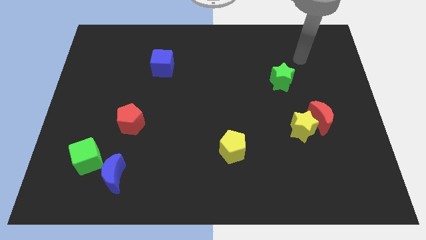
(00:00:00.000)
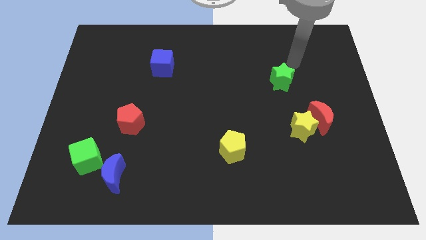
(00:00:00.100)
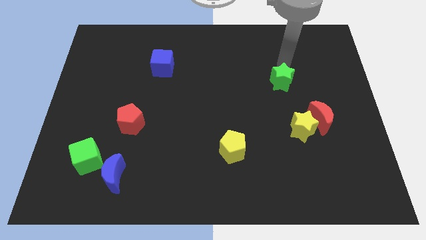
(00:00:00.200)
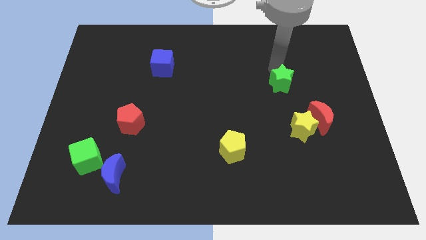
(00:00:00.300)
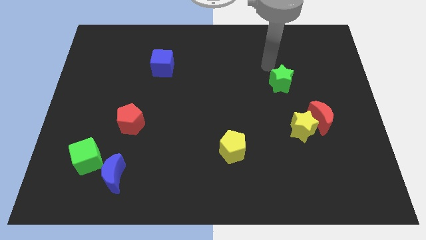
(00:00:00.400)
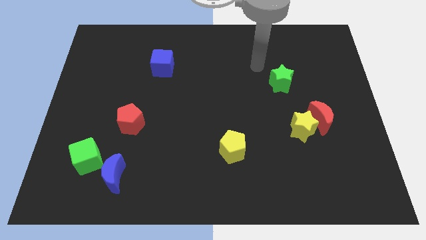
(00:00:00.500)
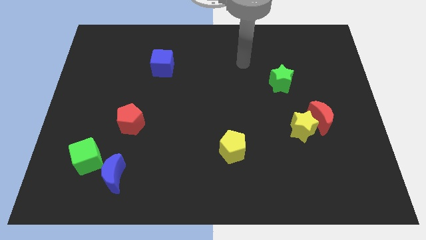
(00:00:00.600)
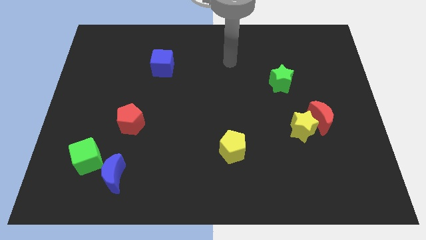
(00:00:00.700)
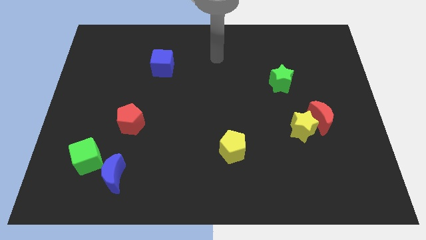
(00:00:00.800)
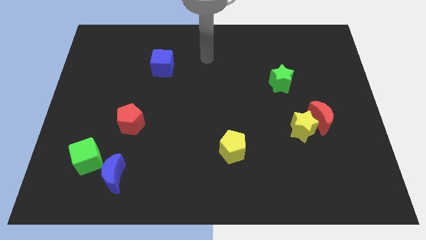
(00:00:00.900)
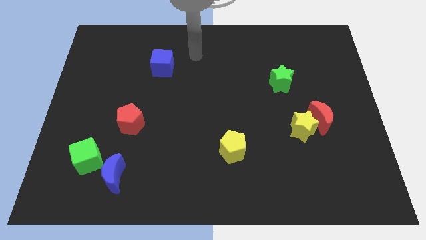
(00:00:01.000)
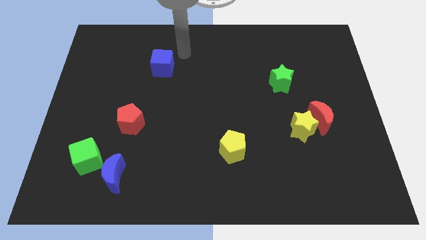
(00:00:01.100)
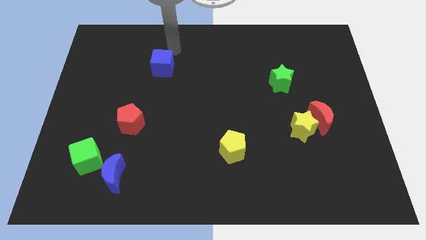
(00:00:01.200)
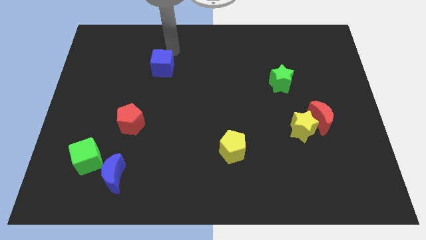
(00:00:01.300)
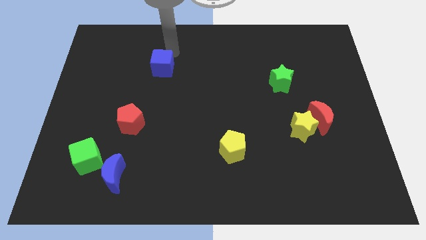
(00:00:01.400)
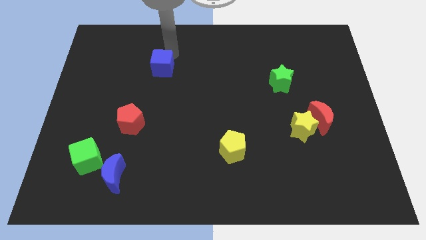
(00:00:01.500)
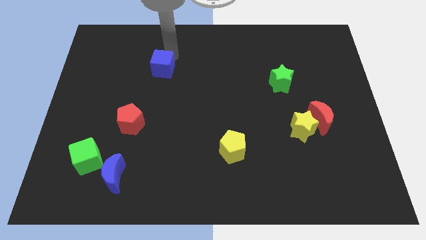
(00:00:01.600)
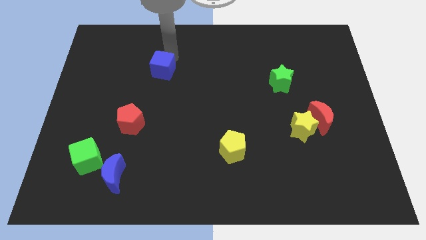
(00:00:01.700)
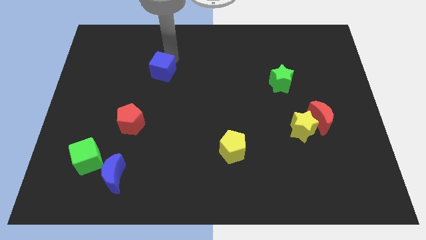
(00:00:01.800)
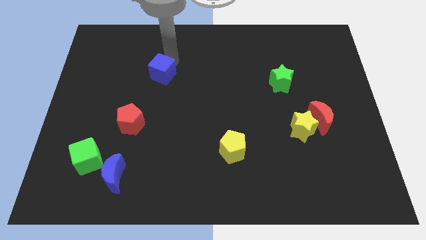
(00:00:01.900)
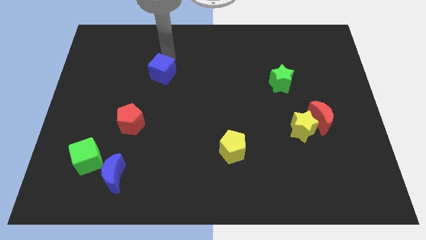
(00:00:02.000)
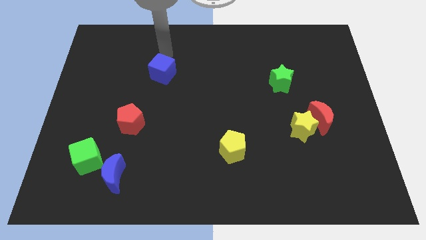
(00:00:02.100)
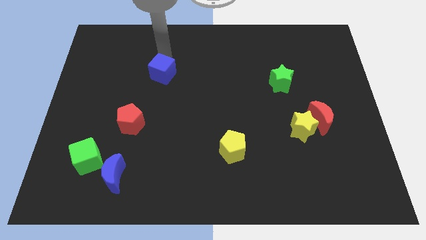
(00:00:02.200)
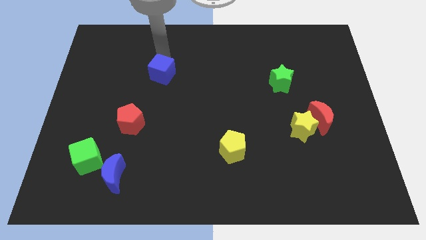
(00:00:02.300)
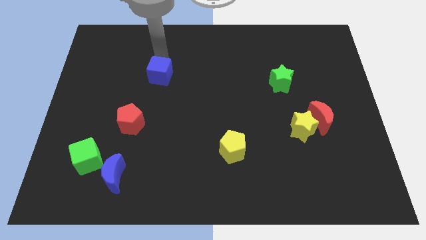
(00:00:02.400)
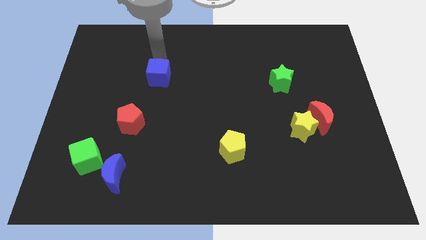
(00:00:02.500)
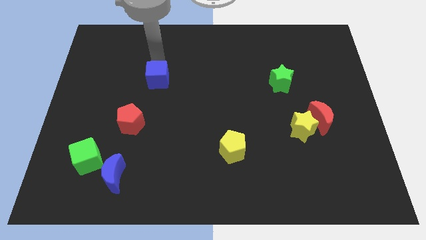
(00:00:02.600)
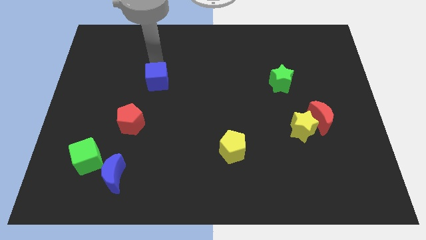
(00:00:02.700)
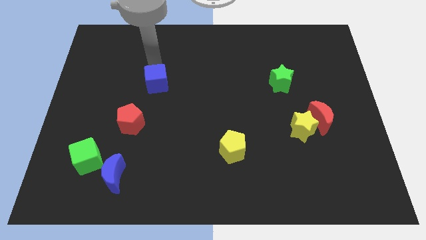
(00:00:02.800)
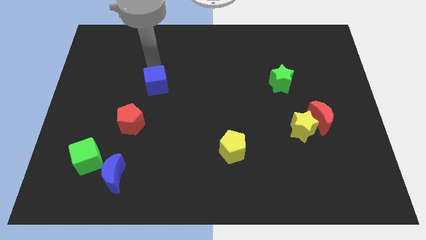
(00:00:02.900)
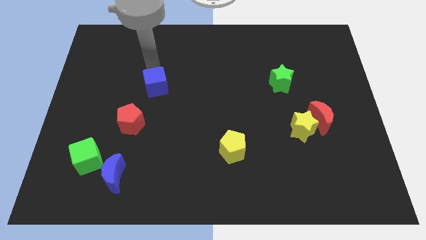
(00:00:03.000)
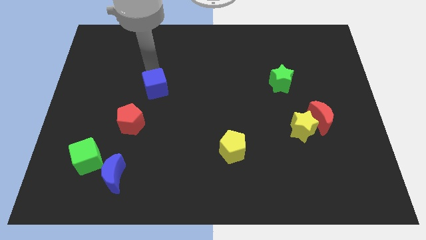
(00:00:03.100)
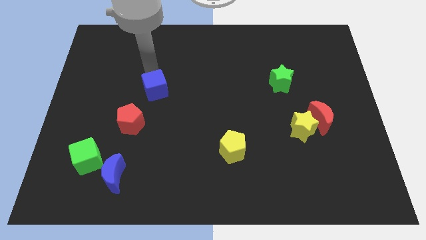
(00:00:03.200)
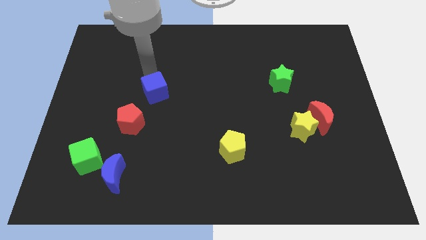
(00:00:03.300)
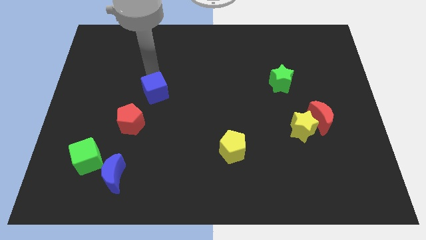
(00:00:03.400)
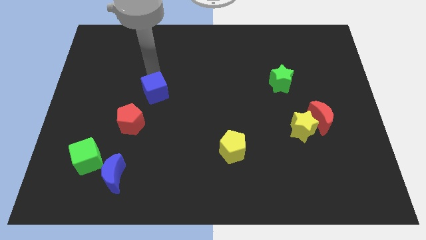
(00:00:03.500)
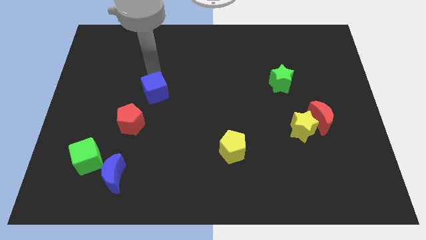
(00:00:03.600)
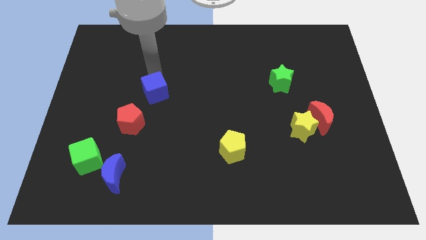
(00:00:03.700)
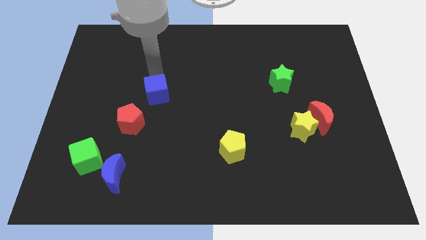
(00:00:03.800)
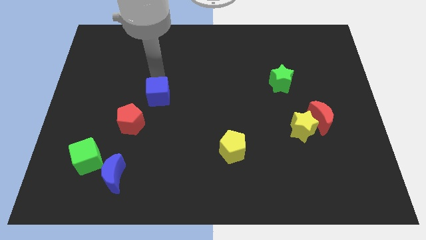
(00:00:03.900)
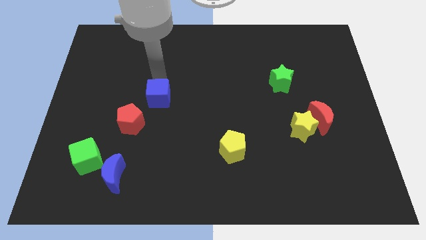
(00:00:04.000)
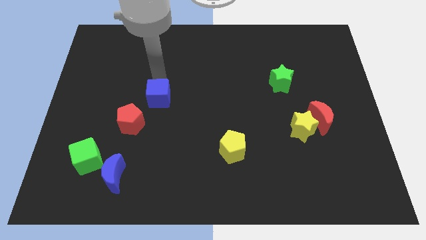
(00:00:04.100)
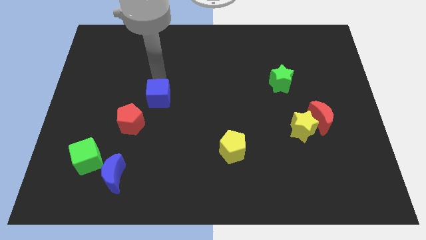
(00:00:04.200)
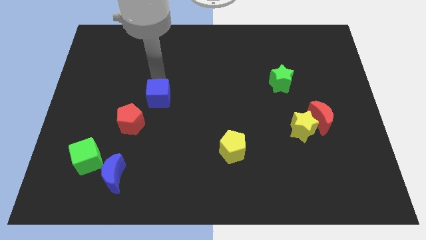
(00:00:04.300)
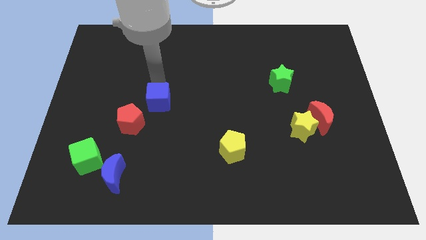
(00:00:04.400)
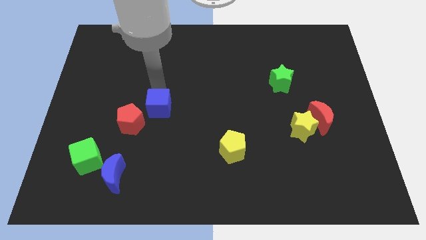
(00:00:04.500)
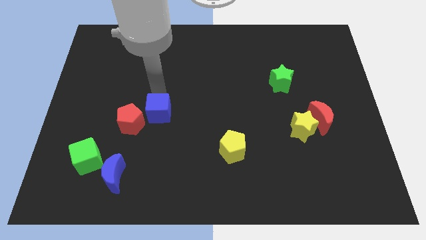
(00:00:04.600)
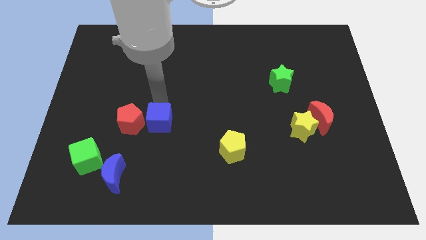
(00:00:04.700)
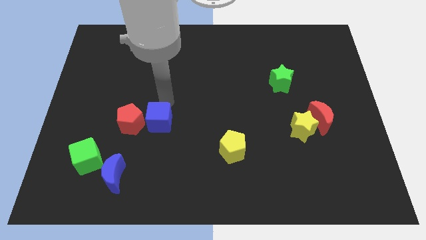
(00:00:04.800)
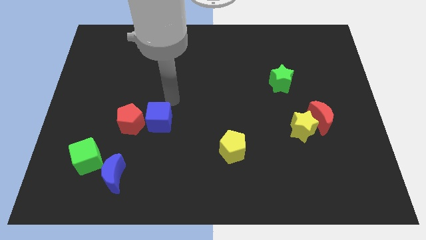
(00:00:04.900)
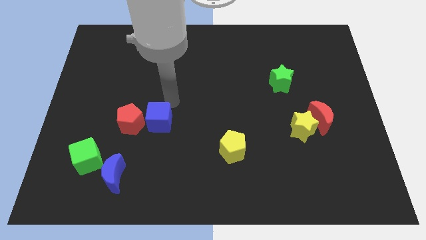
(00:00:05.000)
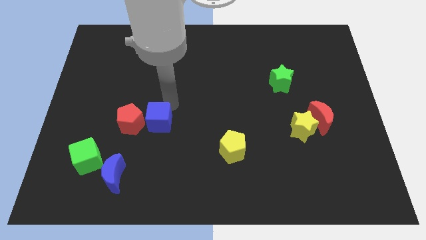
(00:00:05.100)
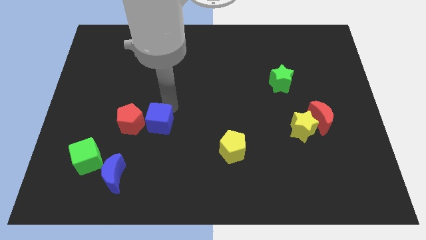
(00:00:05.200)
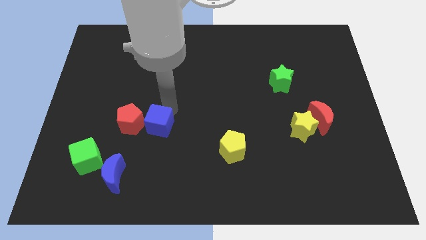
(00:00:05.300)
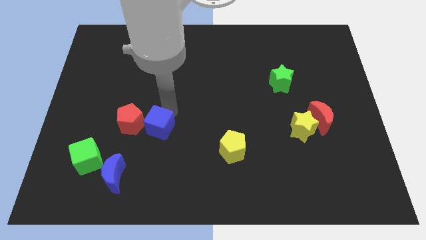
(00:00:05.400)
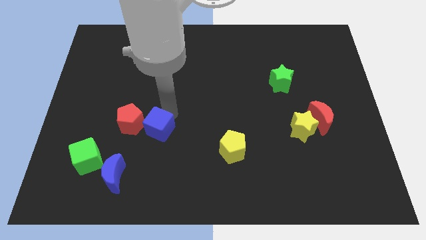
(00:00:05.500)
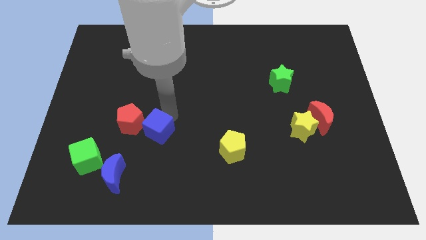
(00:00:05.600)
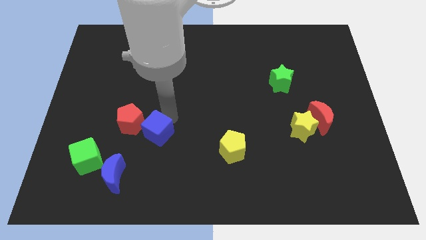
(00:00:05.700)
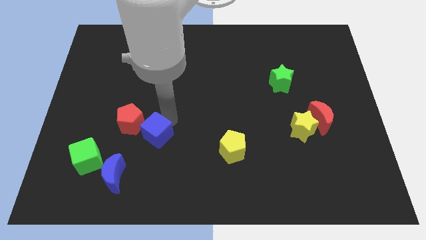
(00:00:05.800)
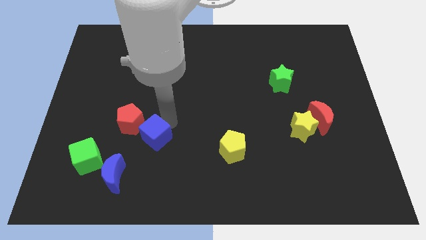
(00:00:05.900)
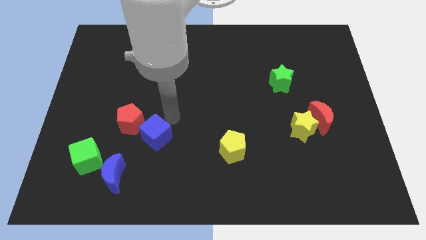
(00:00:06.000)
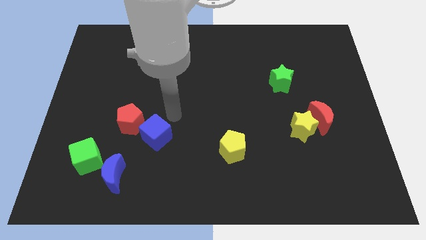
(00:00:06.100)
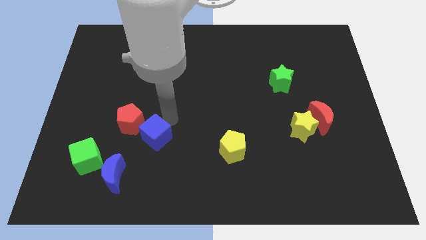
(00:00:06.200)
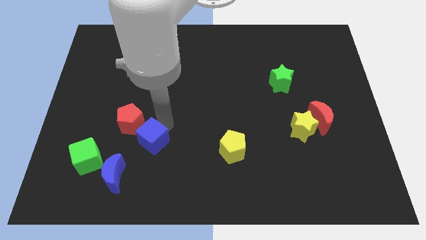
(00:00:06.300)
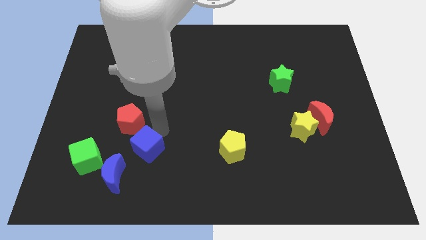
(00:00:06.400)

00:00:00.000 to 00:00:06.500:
slide the blue cube to the right side of the green cube
